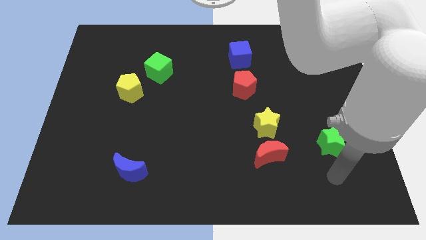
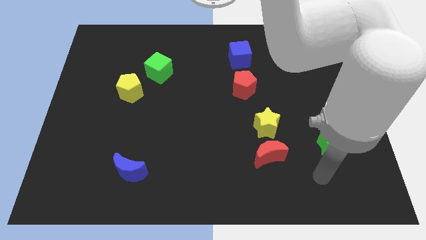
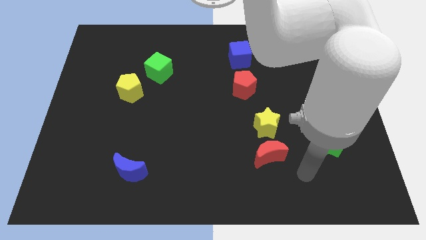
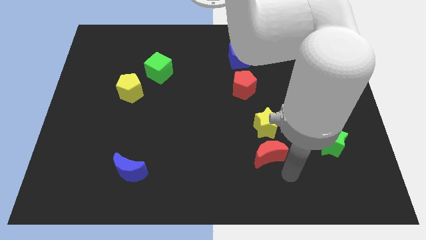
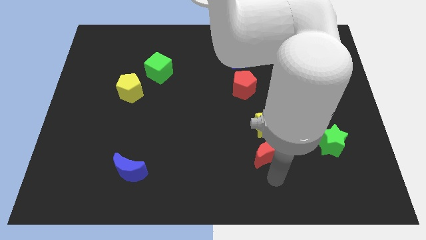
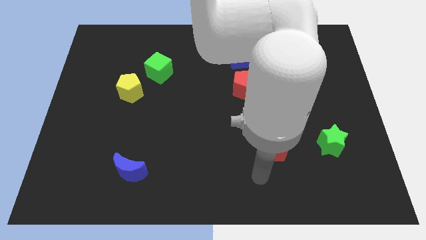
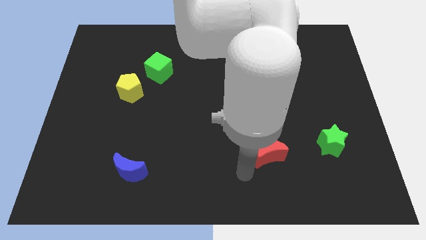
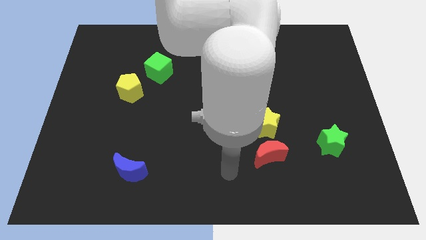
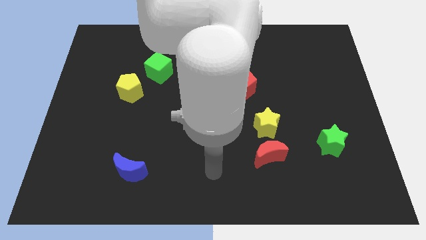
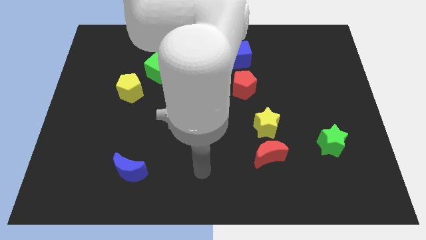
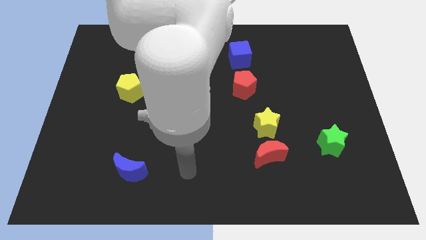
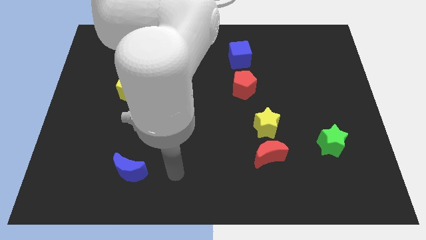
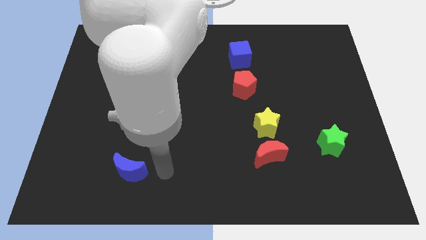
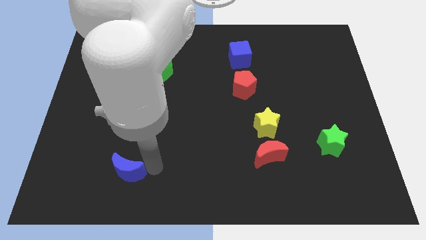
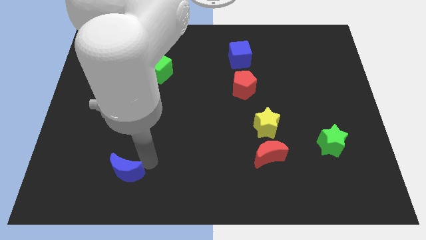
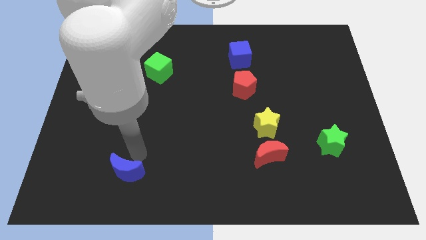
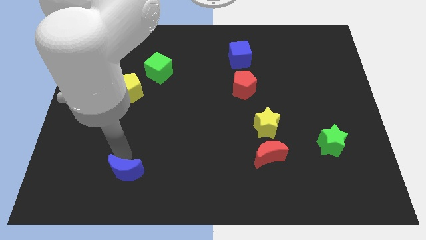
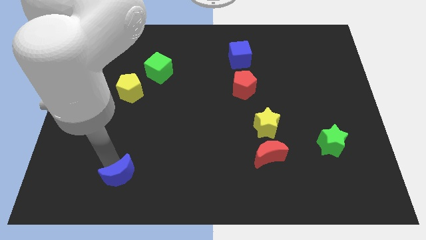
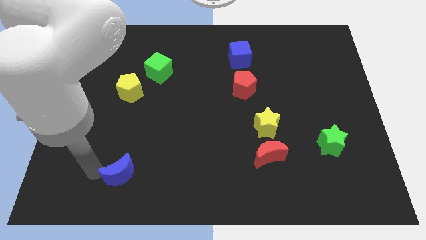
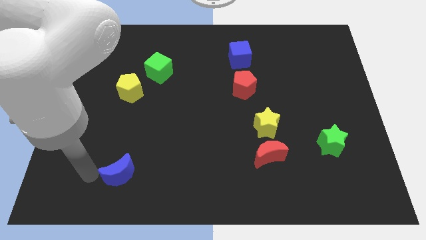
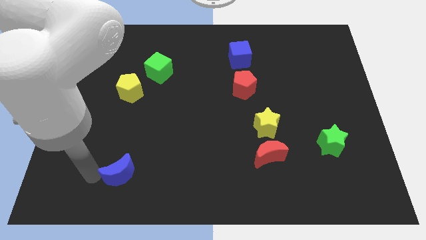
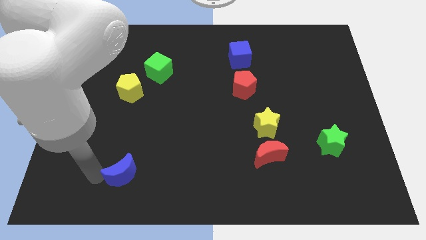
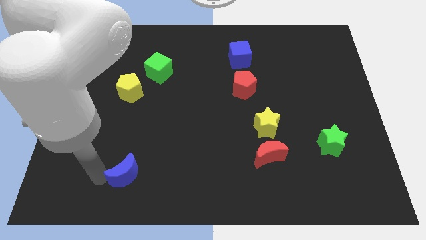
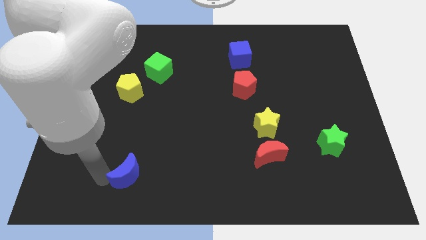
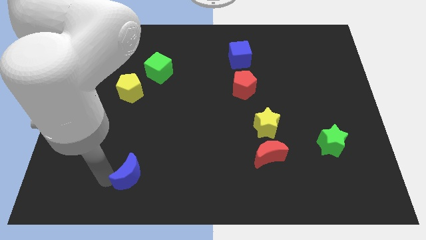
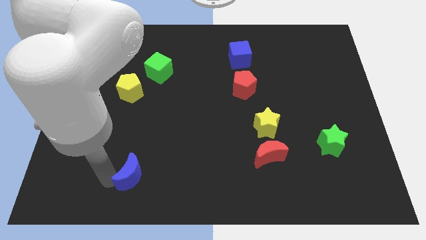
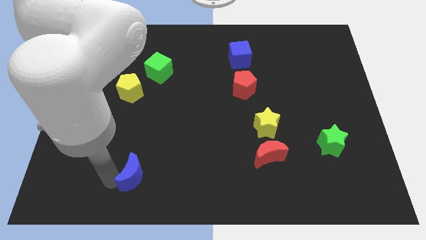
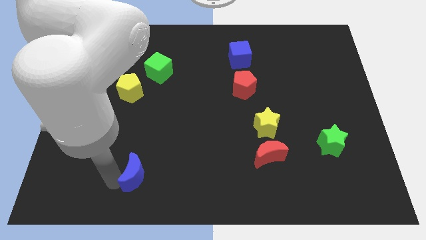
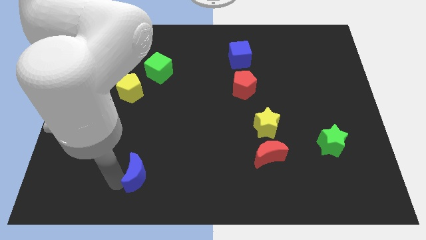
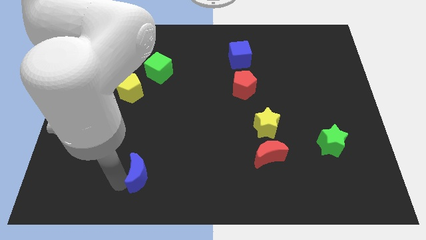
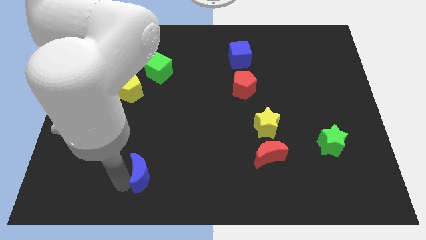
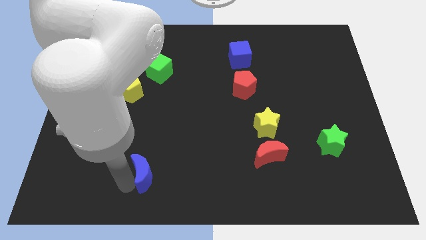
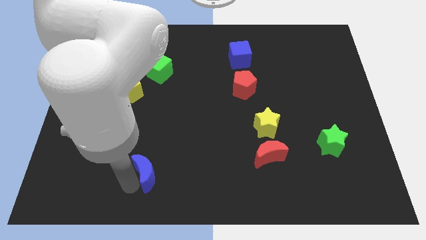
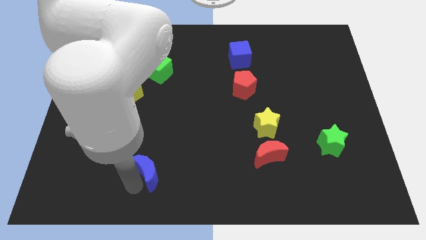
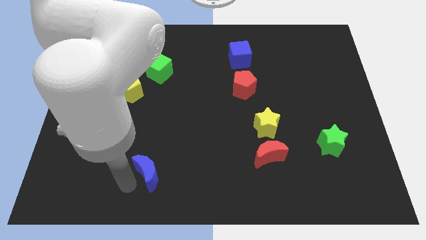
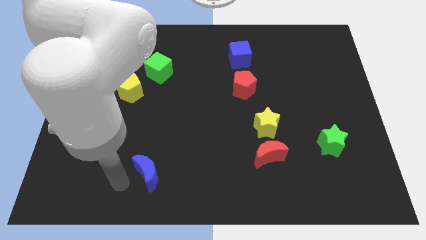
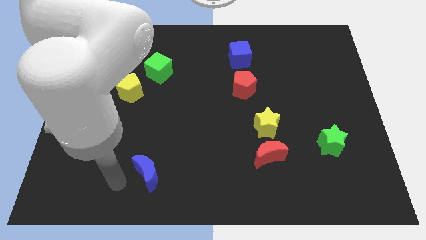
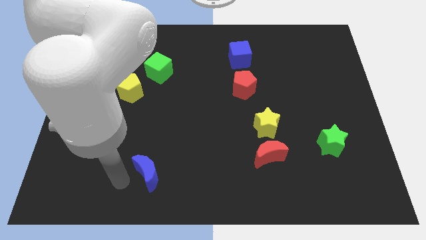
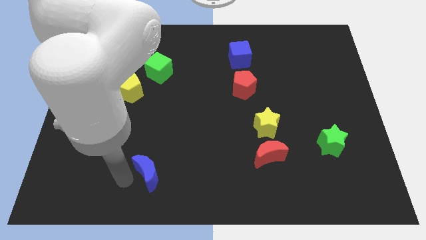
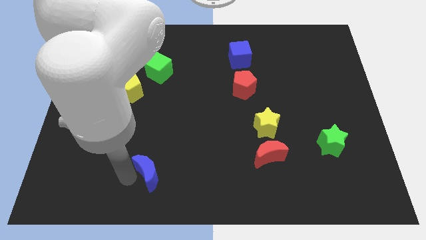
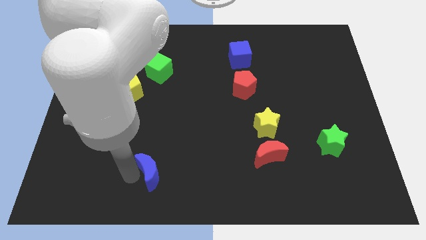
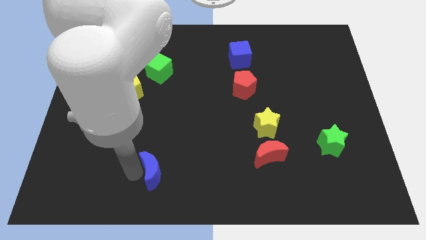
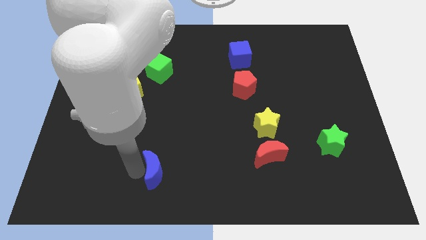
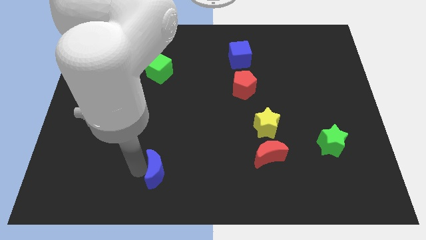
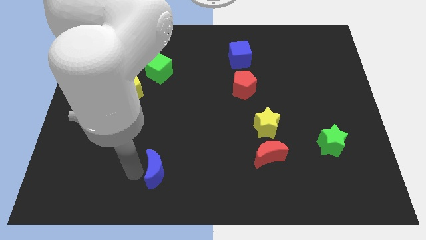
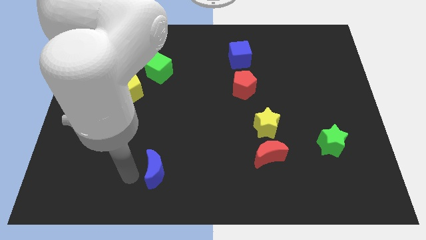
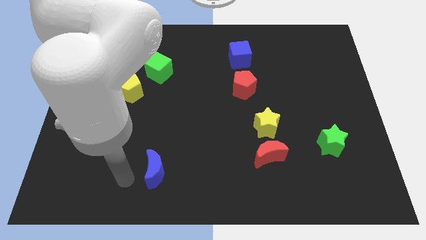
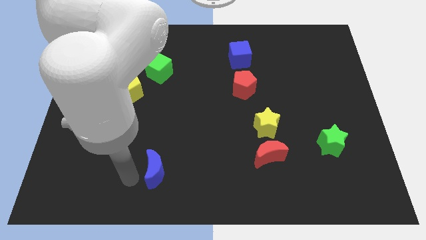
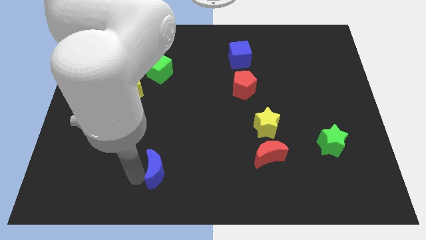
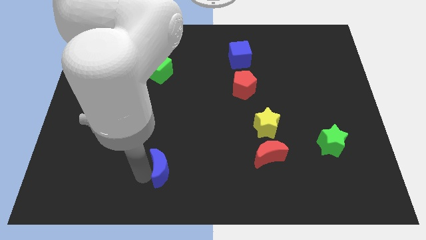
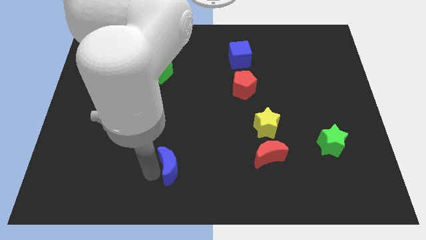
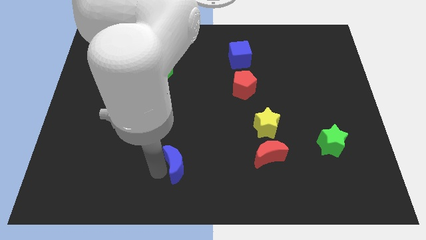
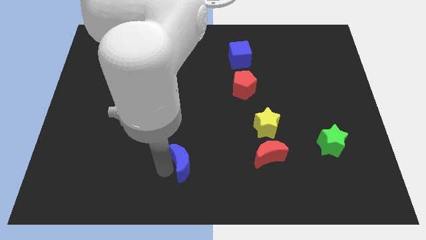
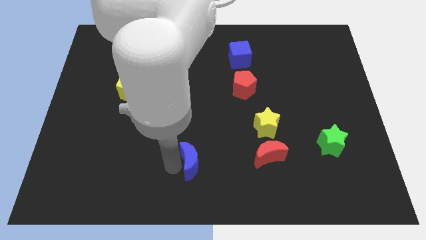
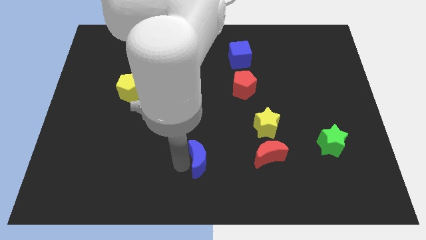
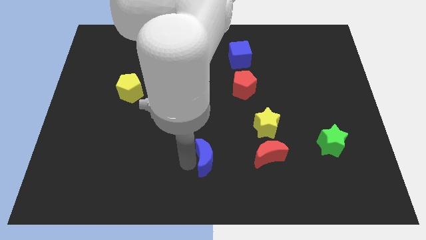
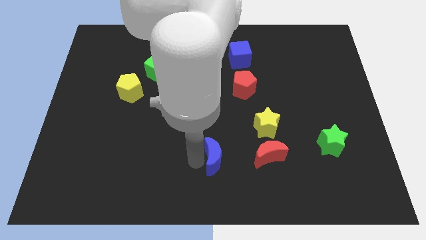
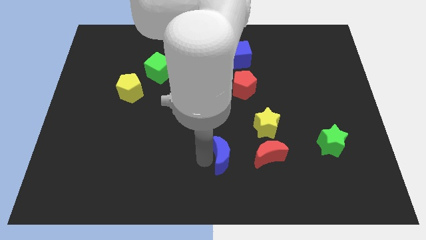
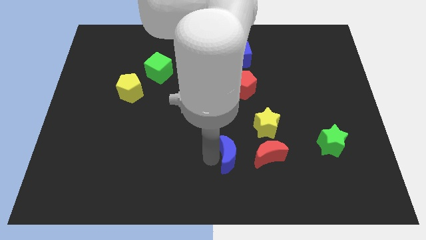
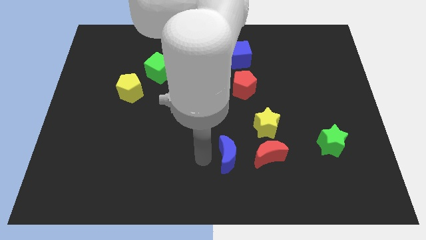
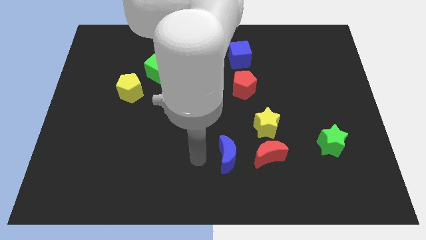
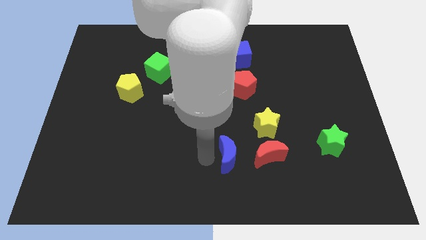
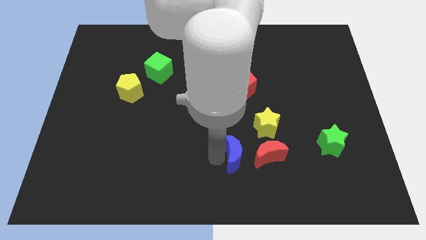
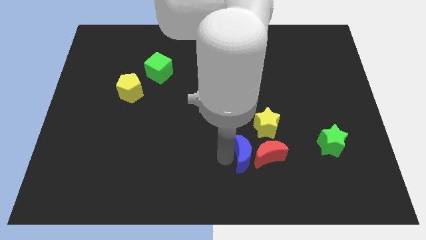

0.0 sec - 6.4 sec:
slide the blue moon towards the red moon

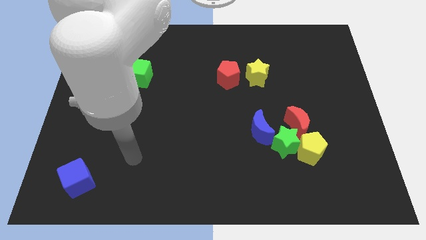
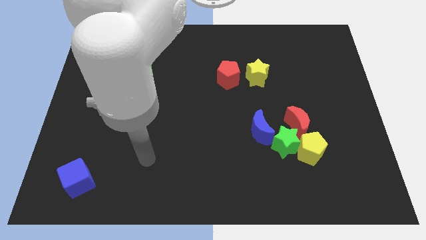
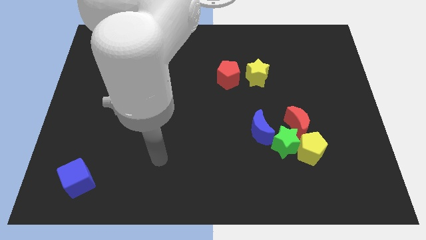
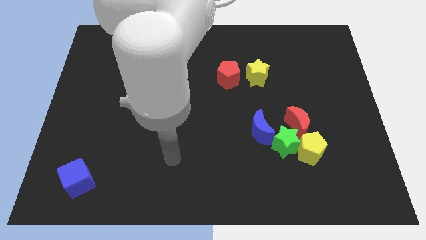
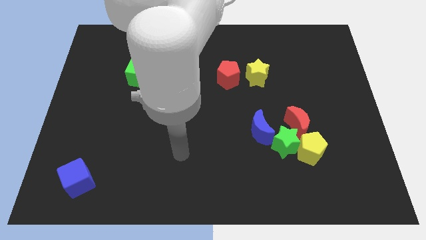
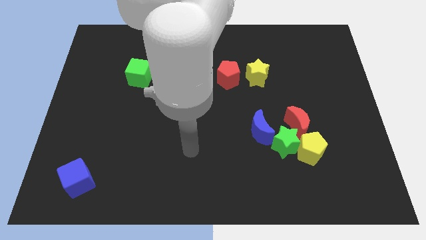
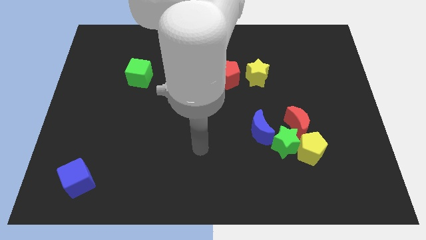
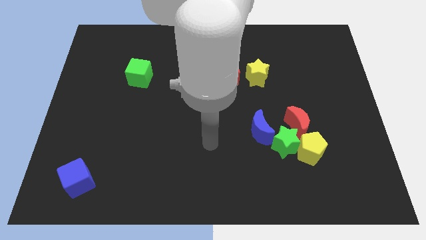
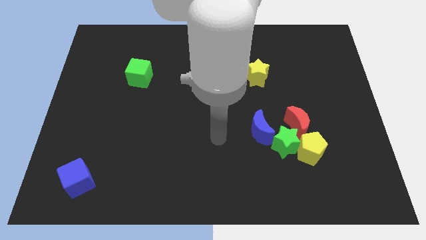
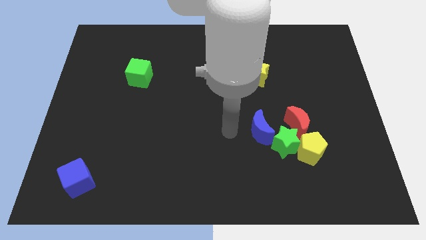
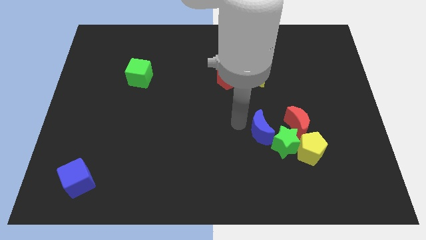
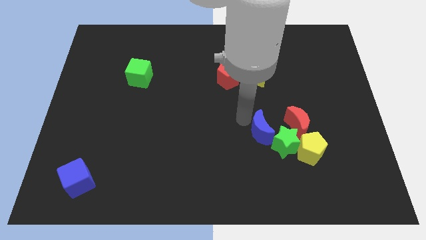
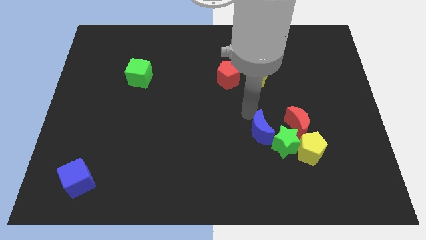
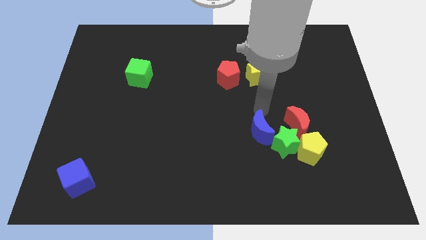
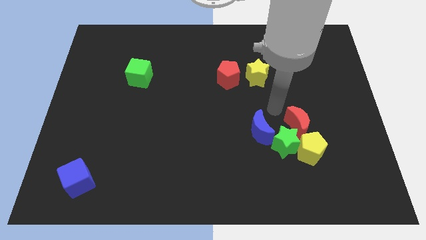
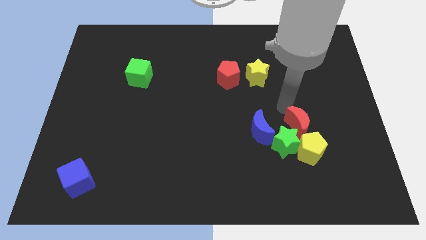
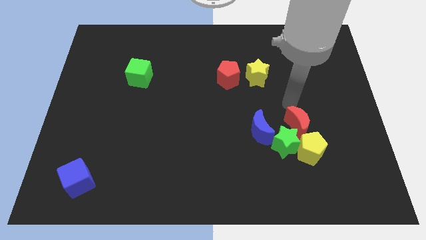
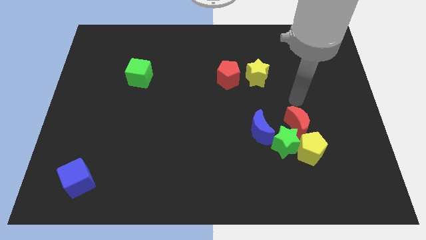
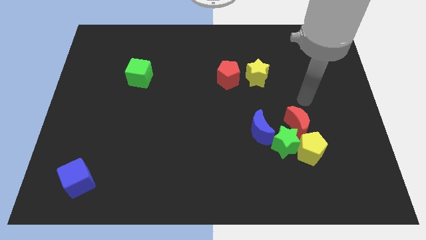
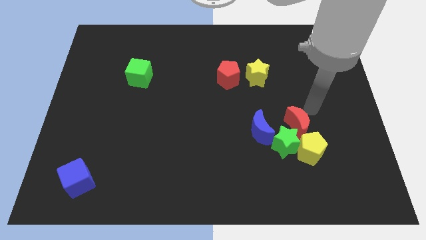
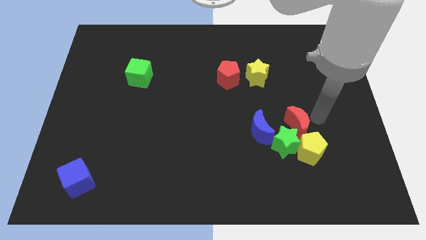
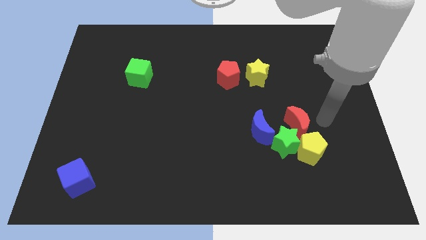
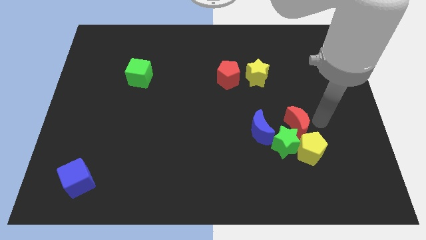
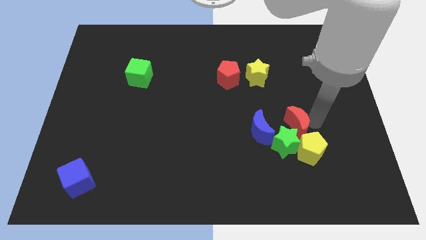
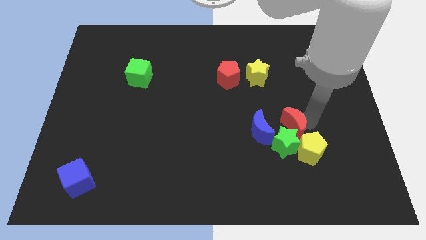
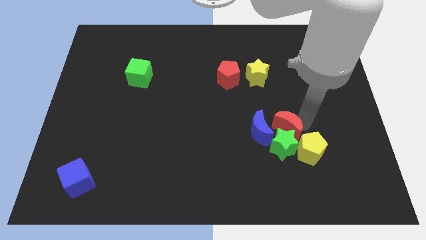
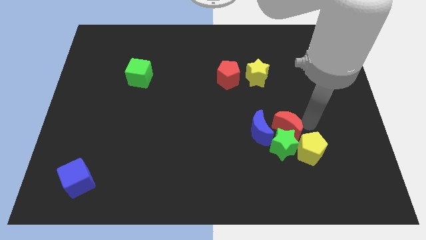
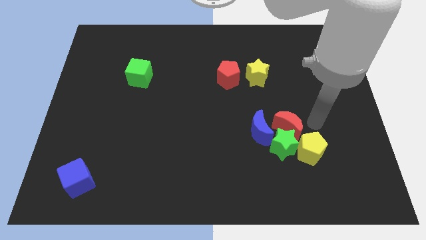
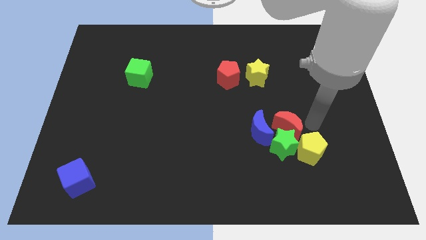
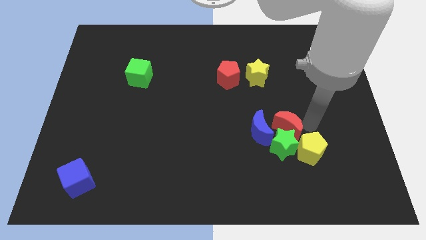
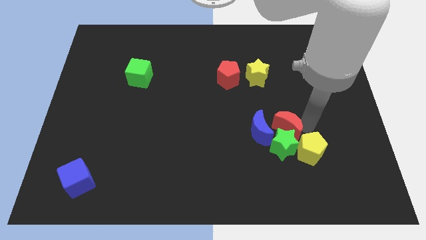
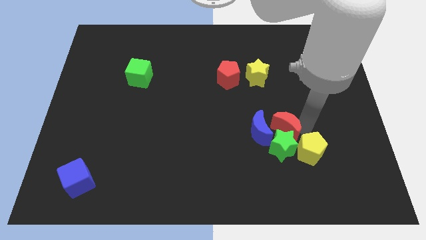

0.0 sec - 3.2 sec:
slide the red moon next to the blue moon
